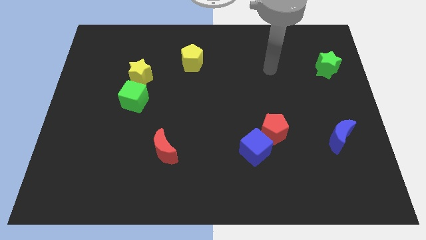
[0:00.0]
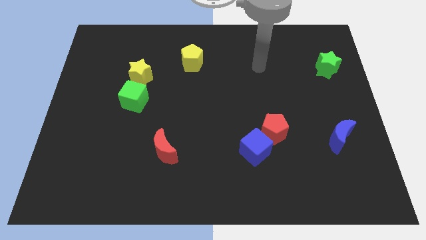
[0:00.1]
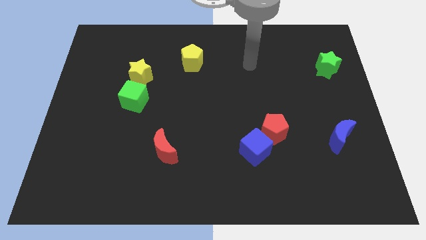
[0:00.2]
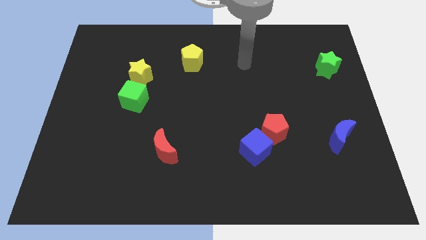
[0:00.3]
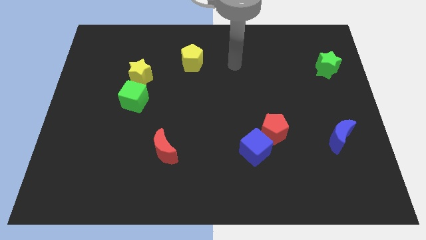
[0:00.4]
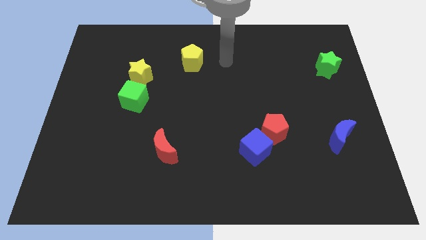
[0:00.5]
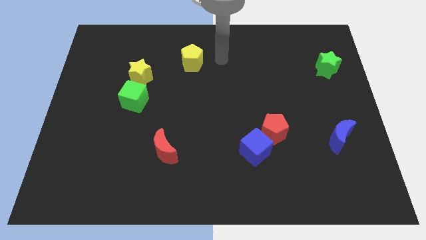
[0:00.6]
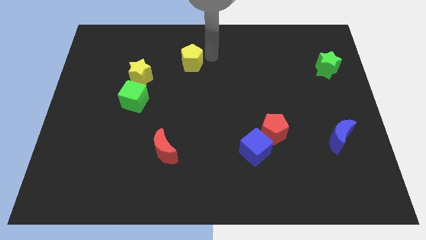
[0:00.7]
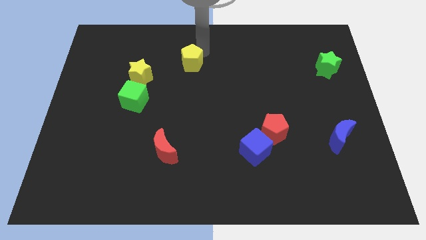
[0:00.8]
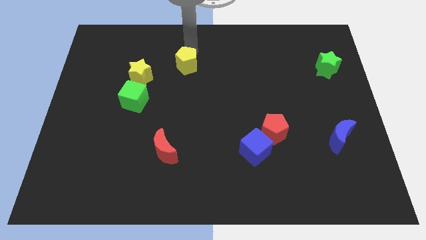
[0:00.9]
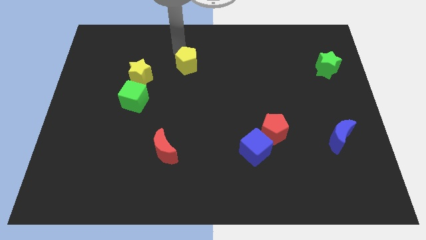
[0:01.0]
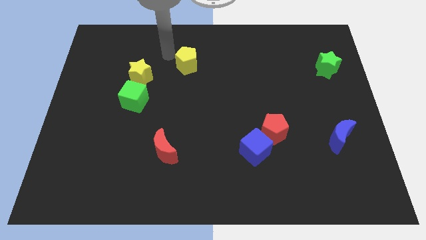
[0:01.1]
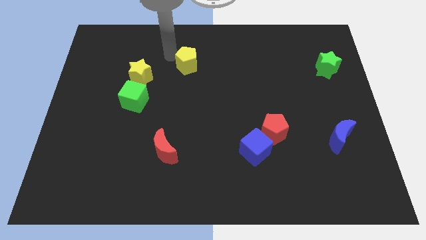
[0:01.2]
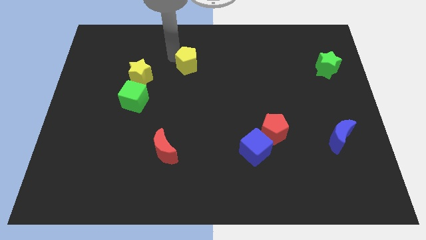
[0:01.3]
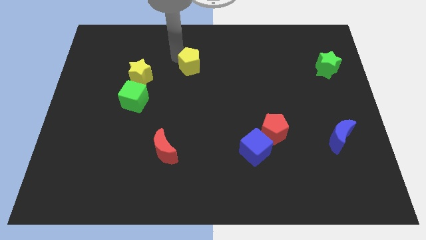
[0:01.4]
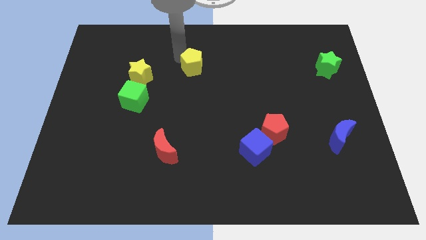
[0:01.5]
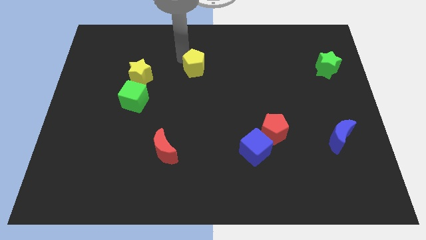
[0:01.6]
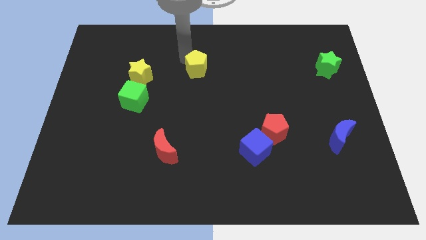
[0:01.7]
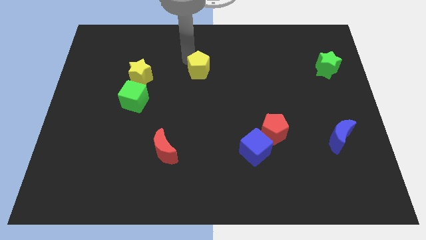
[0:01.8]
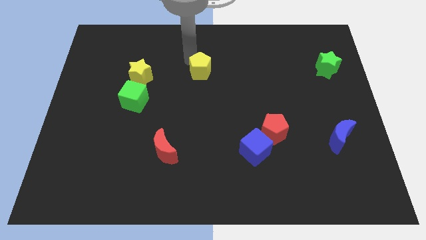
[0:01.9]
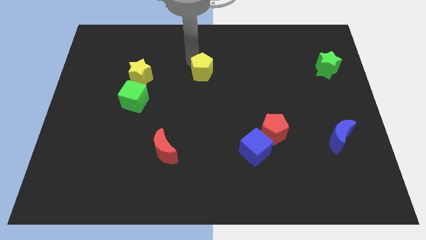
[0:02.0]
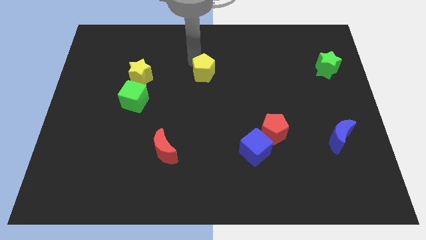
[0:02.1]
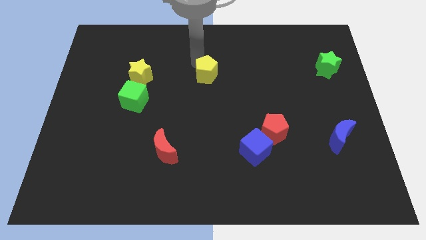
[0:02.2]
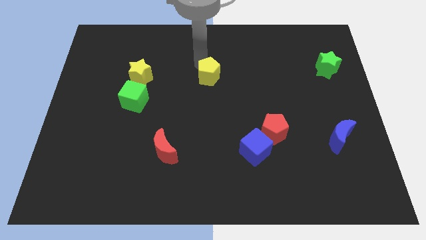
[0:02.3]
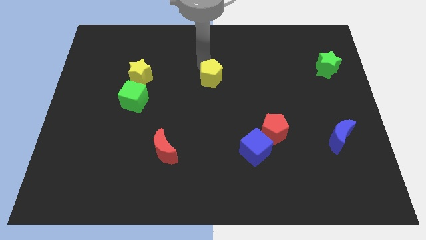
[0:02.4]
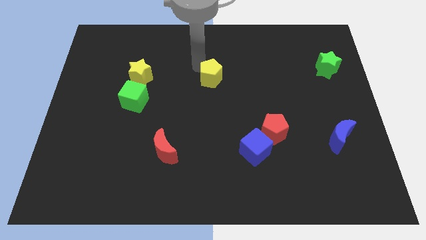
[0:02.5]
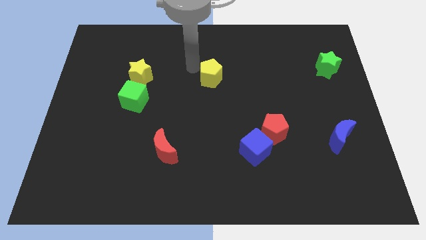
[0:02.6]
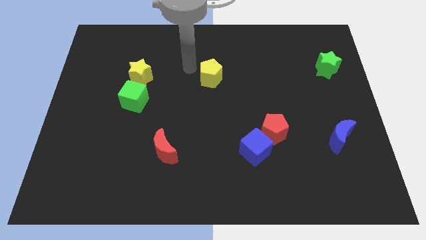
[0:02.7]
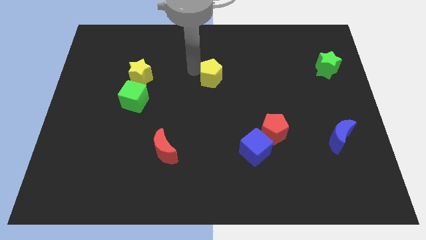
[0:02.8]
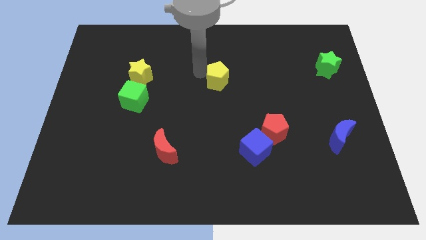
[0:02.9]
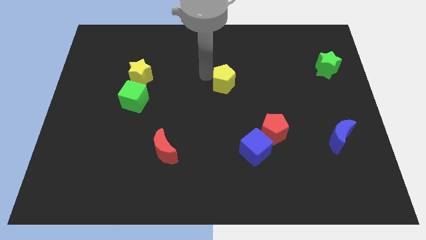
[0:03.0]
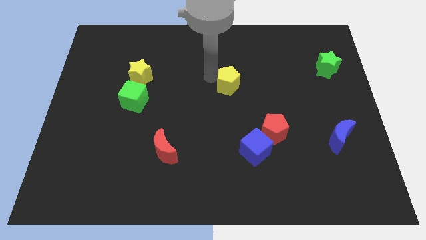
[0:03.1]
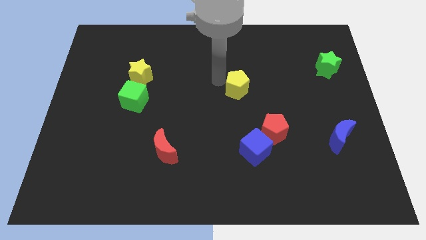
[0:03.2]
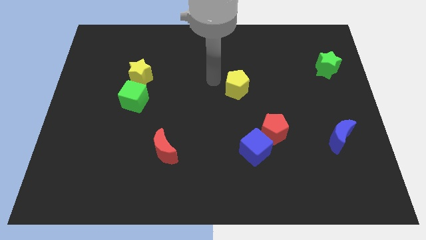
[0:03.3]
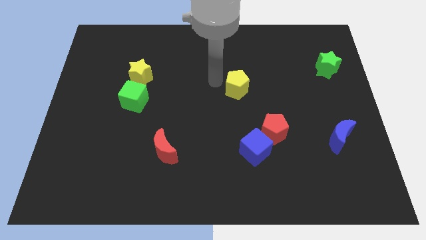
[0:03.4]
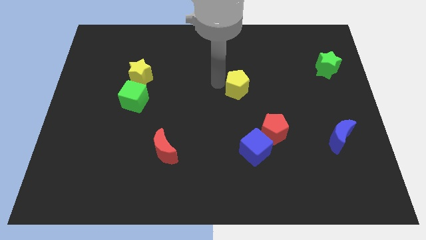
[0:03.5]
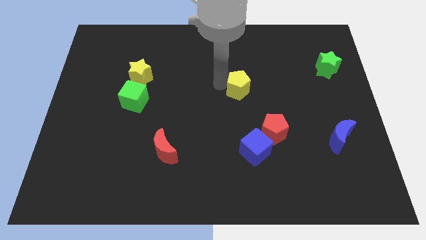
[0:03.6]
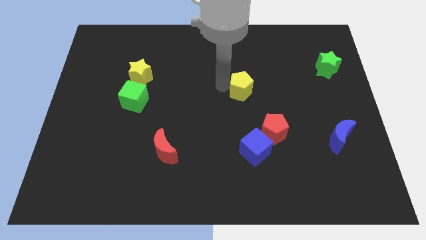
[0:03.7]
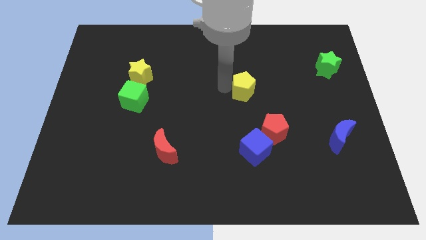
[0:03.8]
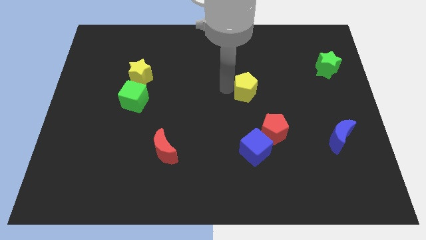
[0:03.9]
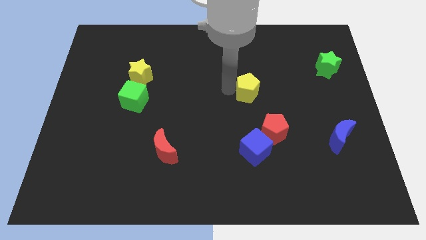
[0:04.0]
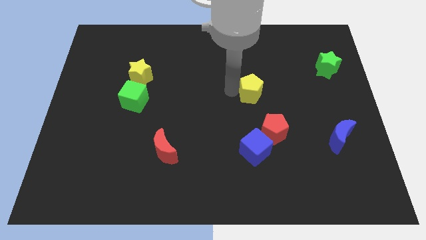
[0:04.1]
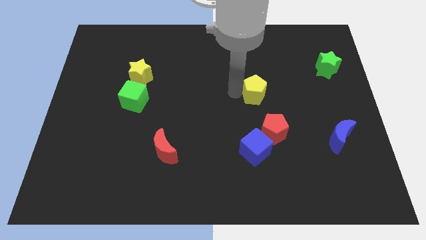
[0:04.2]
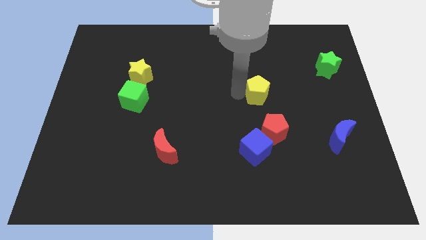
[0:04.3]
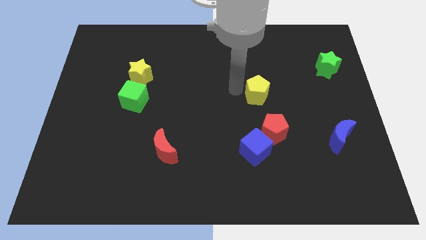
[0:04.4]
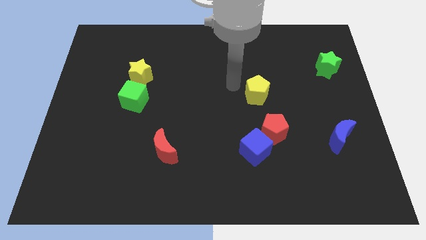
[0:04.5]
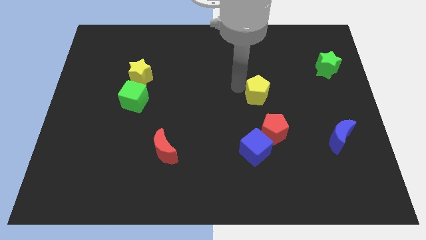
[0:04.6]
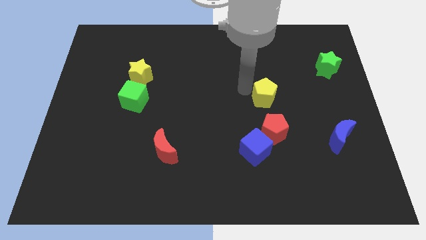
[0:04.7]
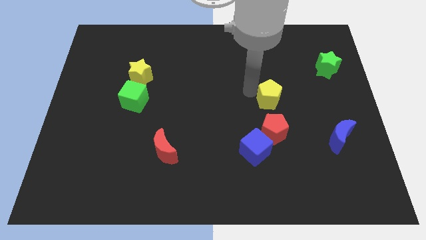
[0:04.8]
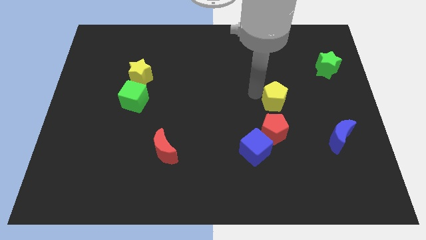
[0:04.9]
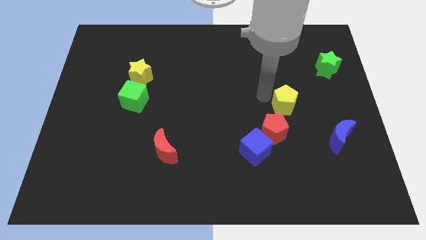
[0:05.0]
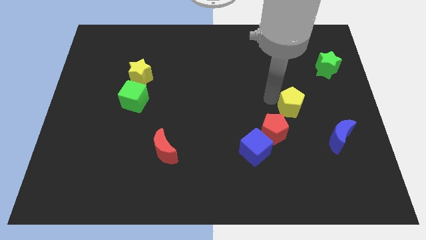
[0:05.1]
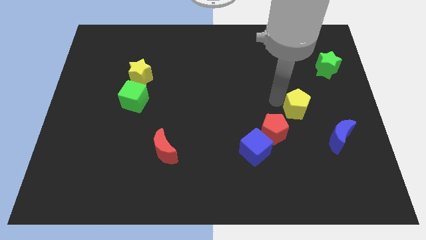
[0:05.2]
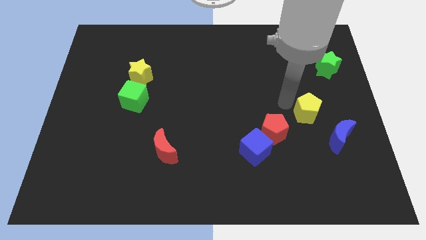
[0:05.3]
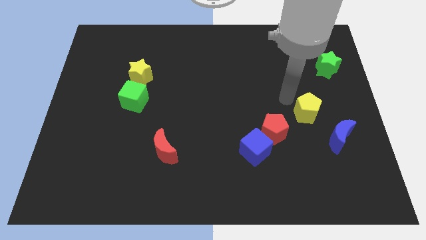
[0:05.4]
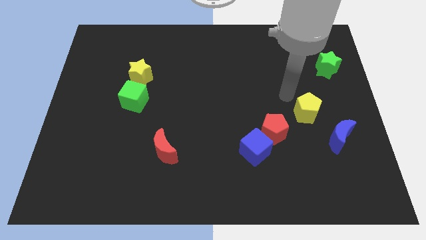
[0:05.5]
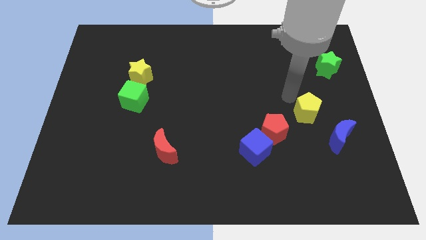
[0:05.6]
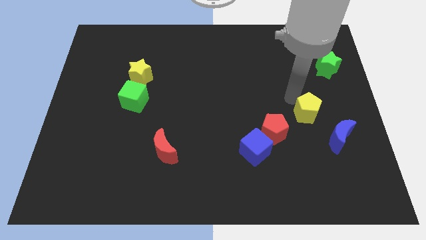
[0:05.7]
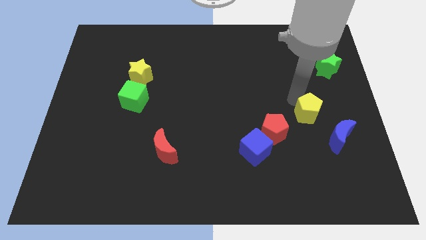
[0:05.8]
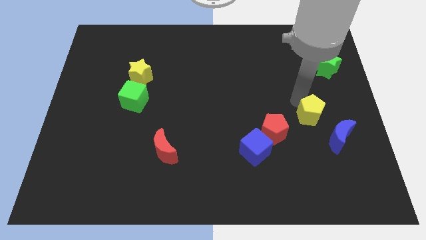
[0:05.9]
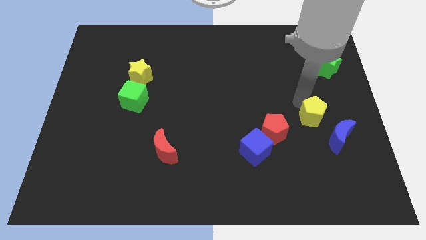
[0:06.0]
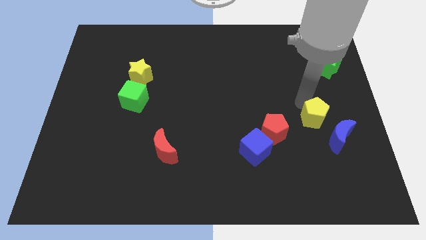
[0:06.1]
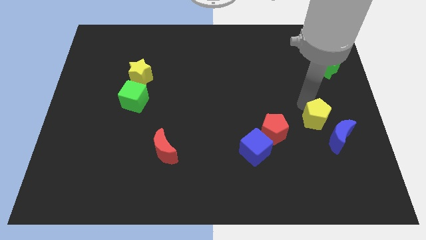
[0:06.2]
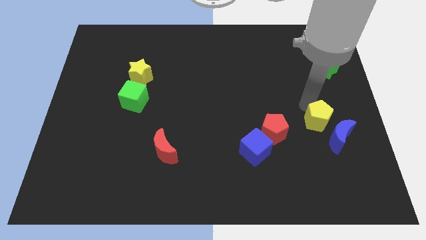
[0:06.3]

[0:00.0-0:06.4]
slide the yellow pentagon close to the blue moon

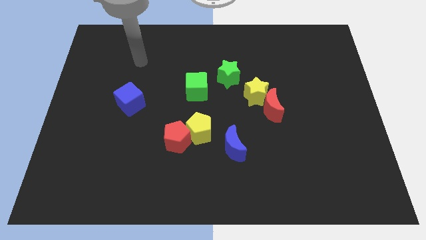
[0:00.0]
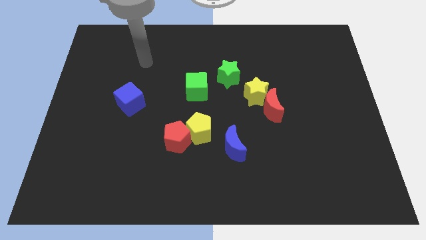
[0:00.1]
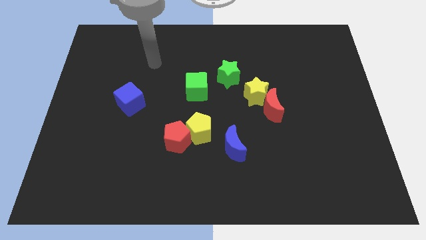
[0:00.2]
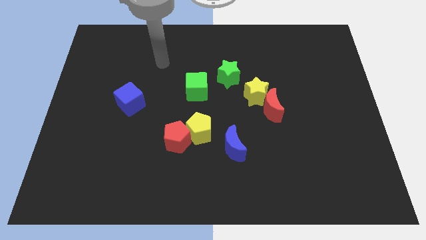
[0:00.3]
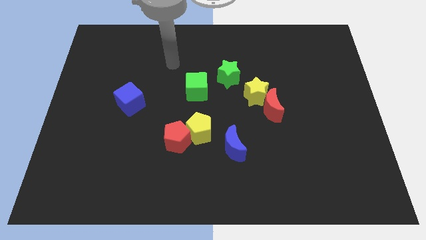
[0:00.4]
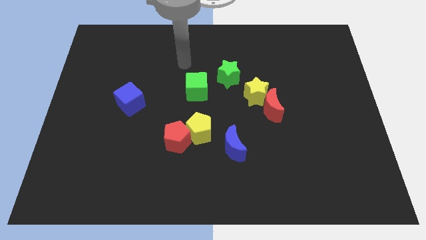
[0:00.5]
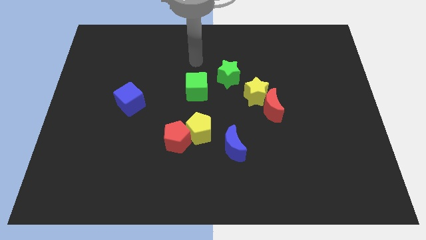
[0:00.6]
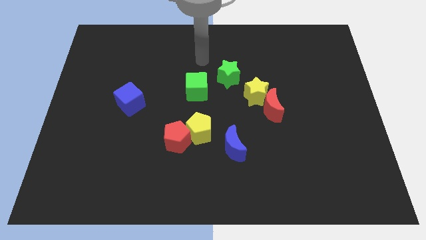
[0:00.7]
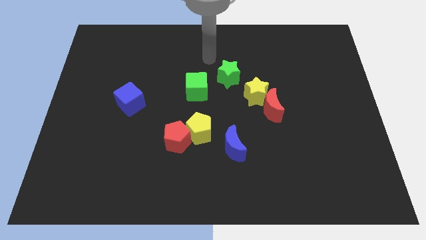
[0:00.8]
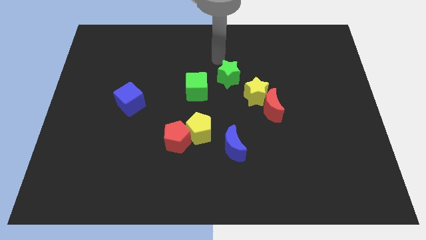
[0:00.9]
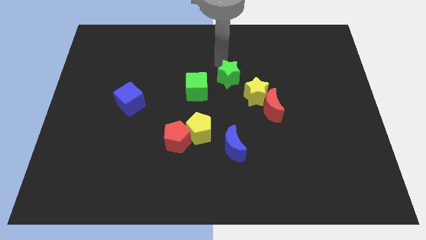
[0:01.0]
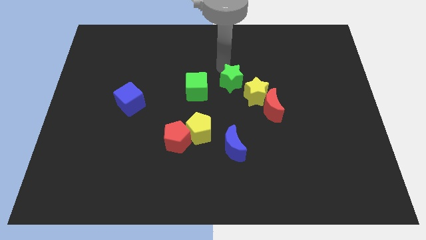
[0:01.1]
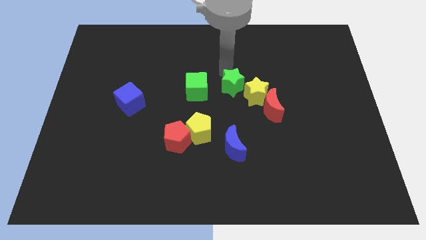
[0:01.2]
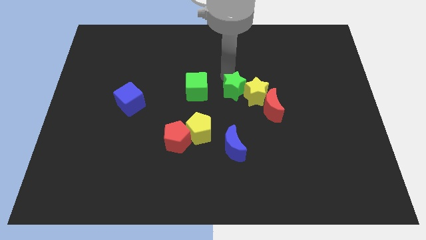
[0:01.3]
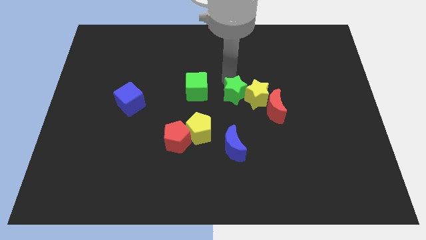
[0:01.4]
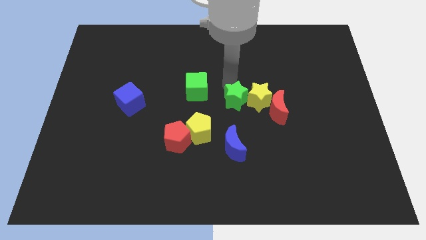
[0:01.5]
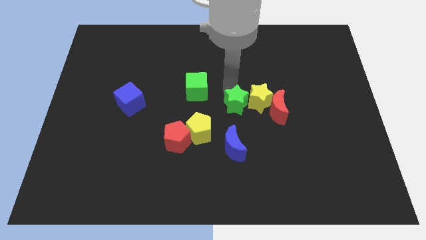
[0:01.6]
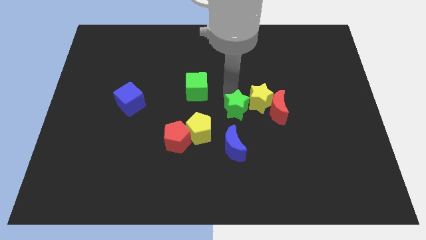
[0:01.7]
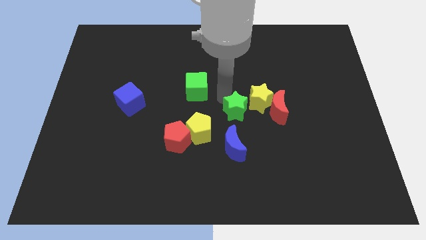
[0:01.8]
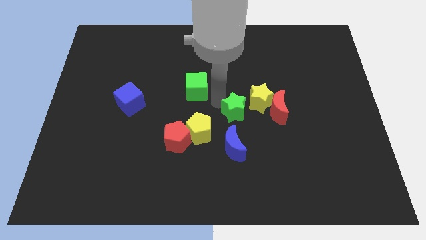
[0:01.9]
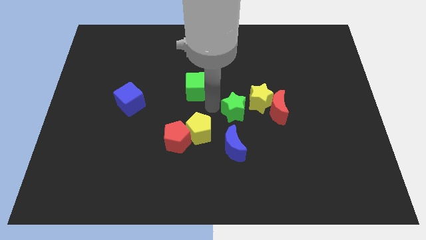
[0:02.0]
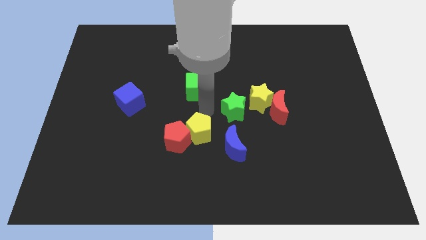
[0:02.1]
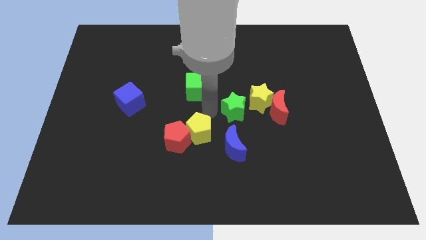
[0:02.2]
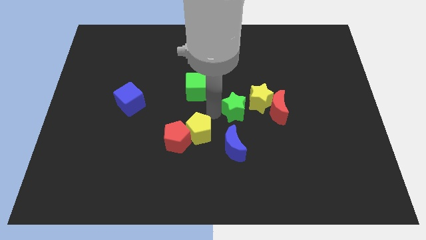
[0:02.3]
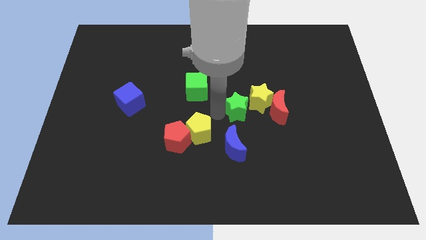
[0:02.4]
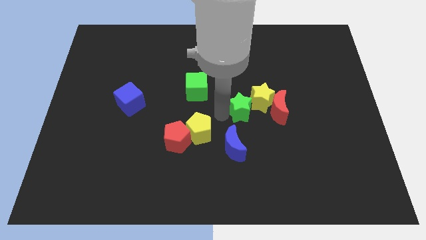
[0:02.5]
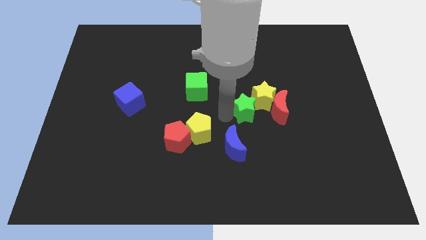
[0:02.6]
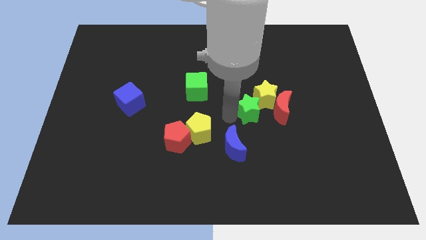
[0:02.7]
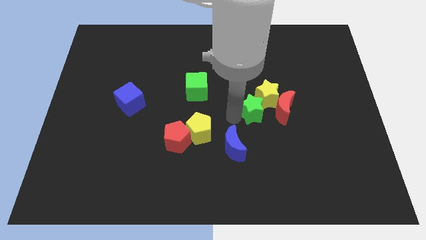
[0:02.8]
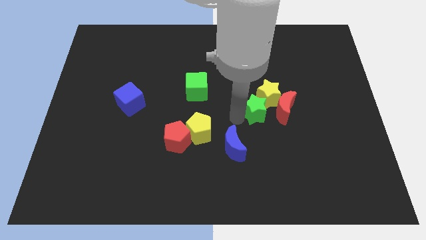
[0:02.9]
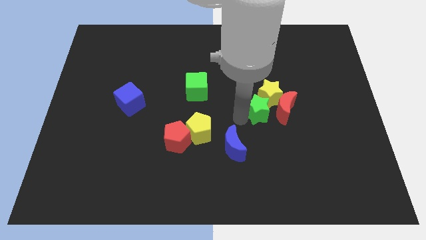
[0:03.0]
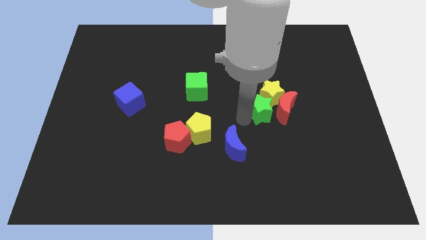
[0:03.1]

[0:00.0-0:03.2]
put the green star to the red moon
